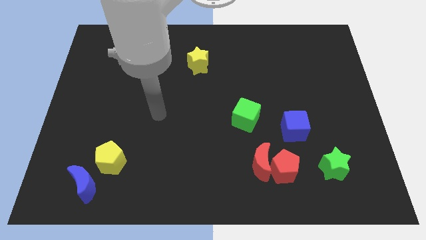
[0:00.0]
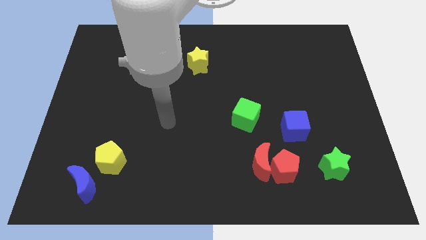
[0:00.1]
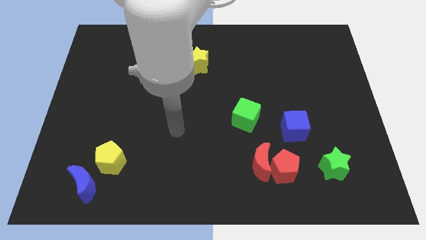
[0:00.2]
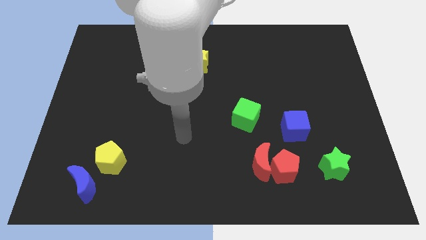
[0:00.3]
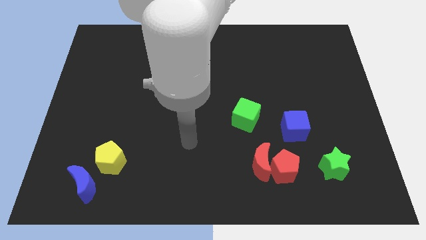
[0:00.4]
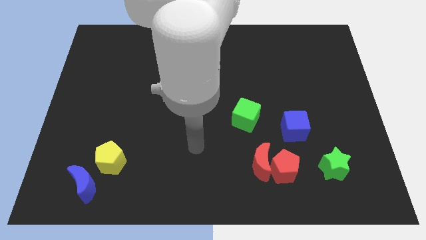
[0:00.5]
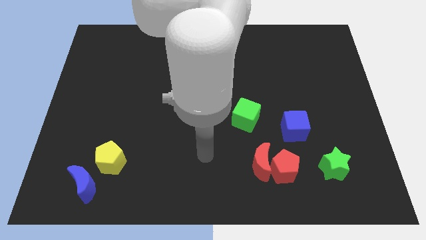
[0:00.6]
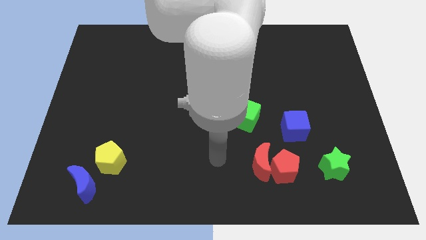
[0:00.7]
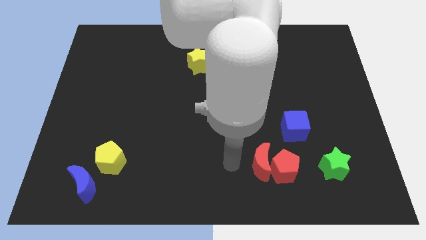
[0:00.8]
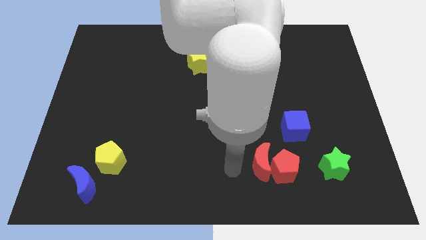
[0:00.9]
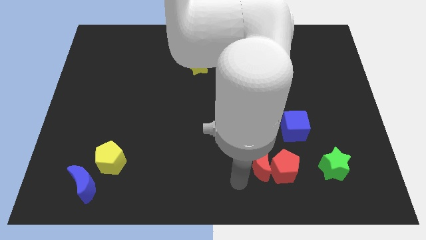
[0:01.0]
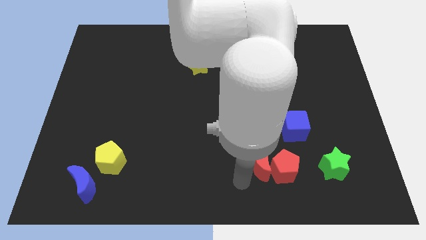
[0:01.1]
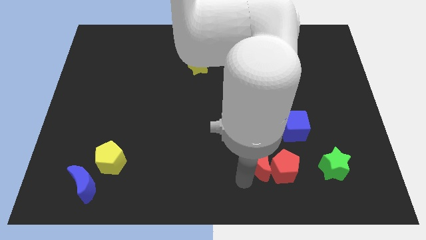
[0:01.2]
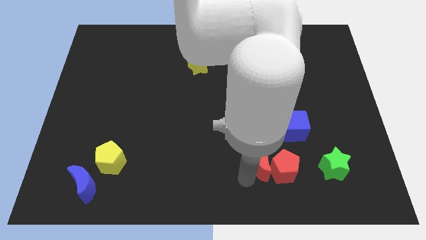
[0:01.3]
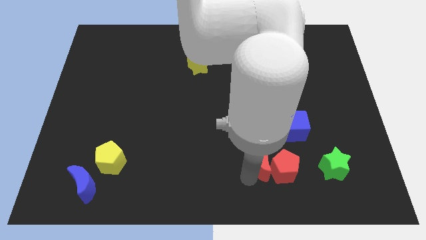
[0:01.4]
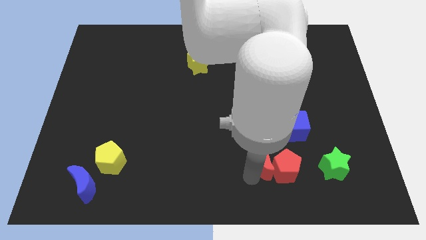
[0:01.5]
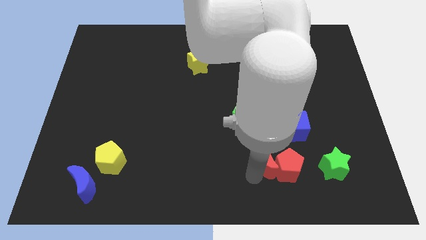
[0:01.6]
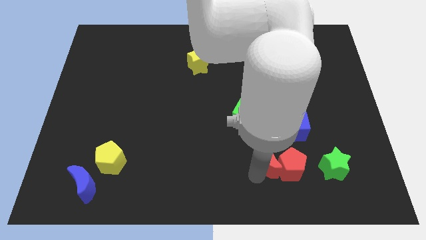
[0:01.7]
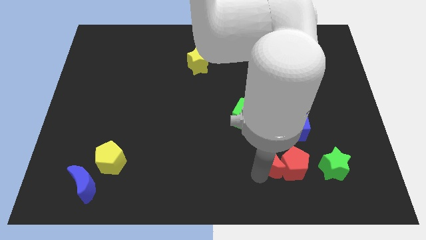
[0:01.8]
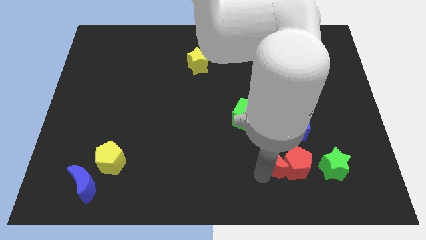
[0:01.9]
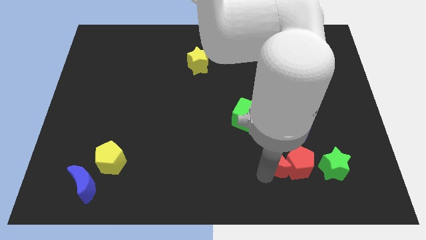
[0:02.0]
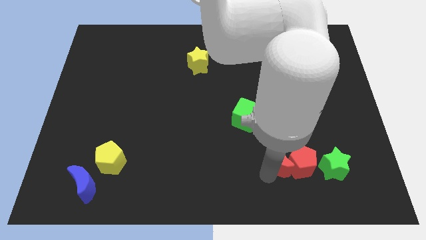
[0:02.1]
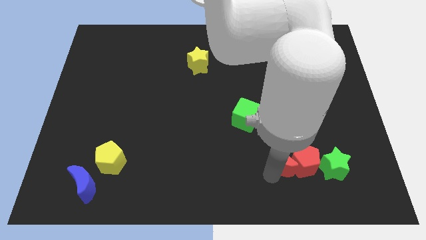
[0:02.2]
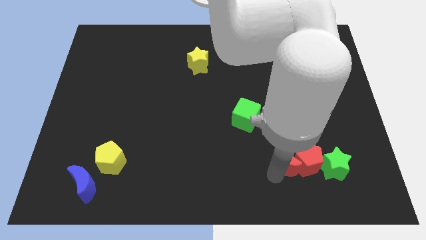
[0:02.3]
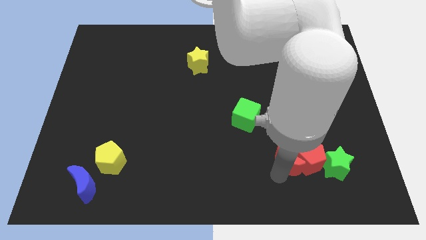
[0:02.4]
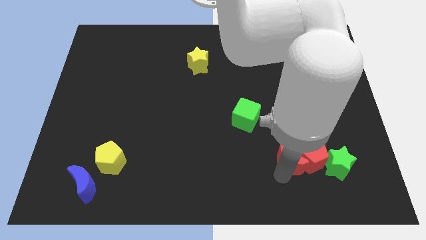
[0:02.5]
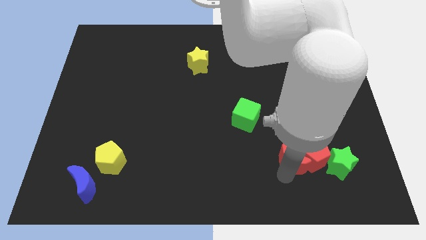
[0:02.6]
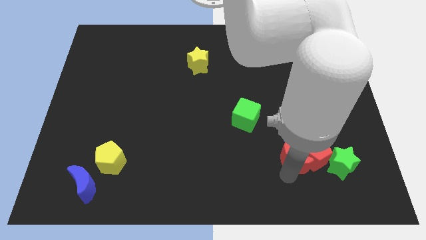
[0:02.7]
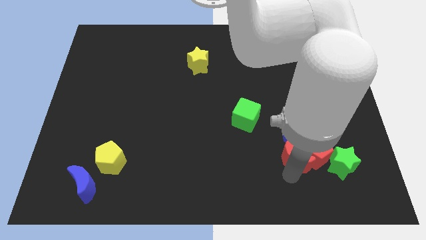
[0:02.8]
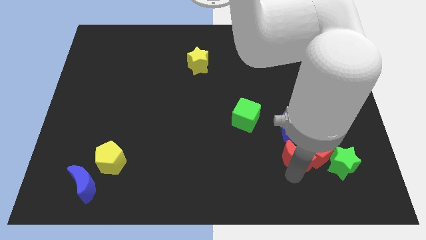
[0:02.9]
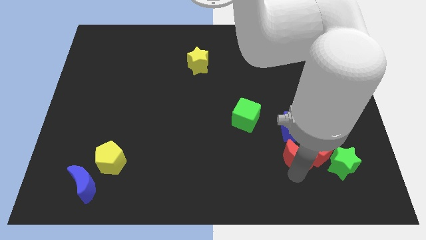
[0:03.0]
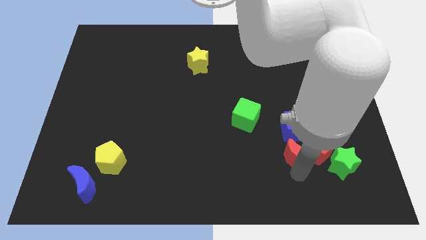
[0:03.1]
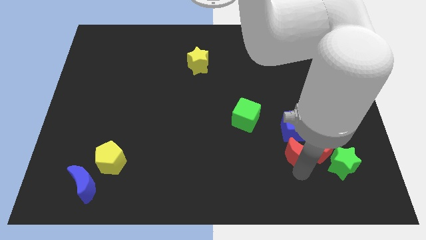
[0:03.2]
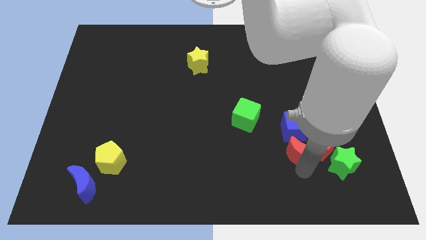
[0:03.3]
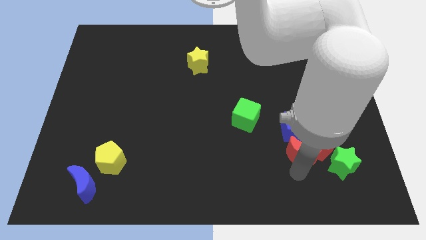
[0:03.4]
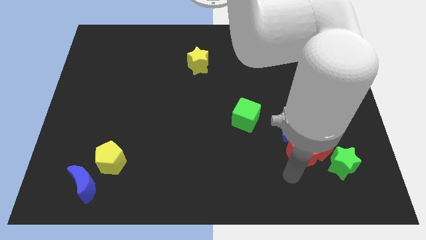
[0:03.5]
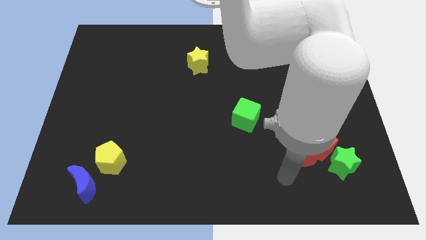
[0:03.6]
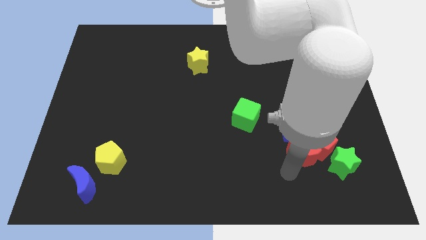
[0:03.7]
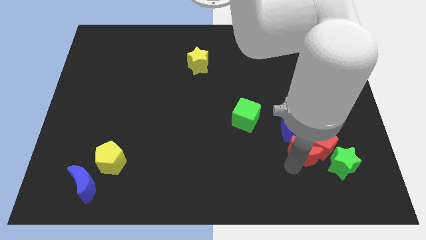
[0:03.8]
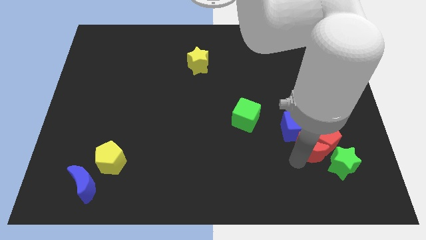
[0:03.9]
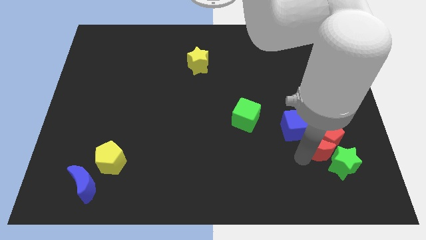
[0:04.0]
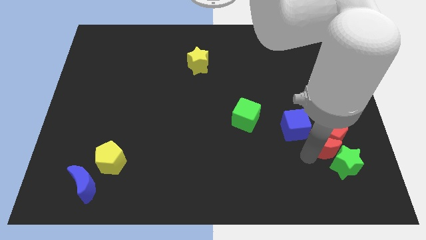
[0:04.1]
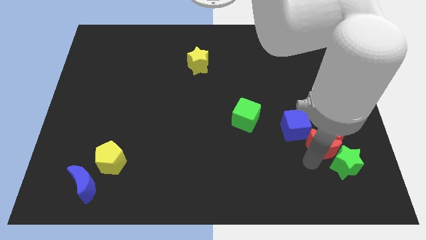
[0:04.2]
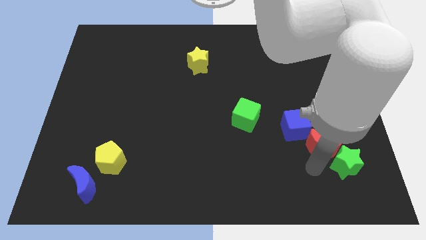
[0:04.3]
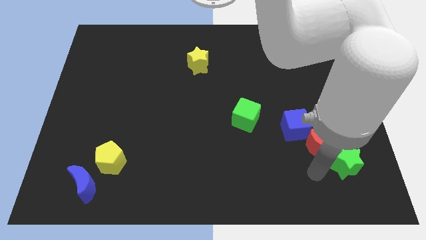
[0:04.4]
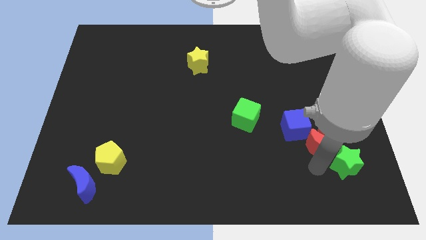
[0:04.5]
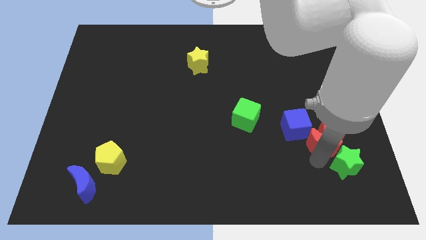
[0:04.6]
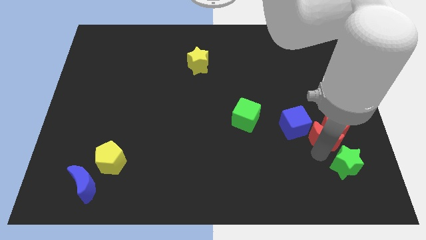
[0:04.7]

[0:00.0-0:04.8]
put the red moon just right of the blue cube

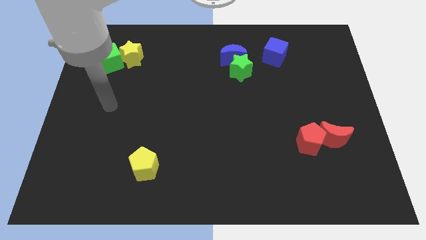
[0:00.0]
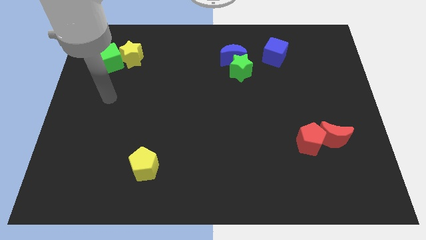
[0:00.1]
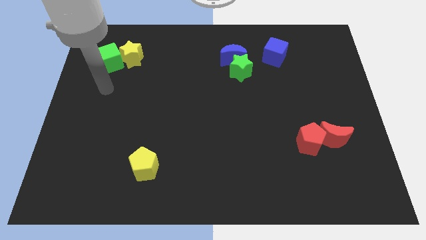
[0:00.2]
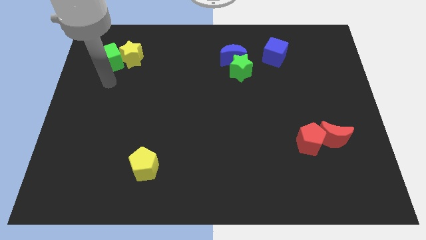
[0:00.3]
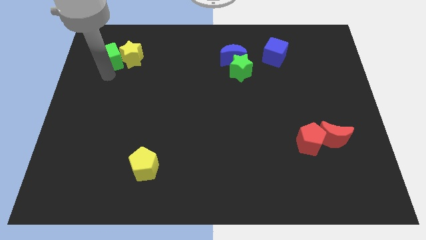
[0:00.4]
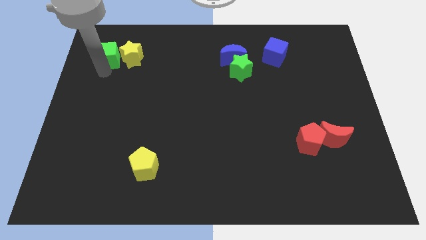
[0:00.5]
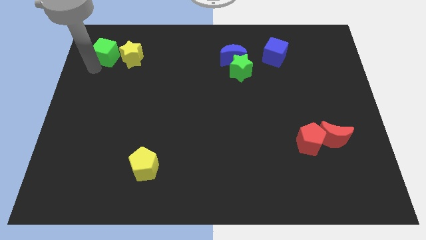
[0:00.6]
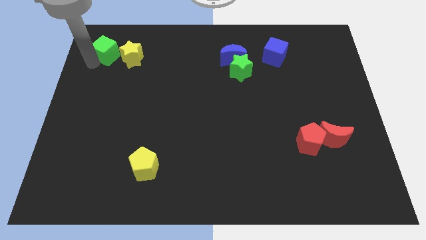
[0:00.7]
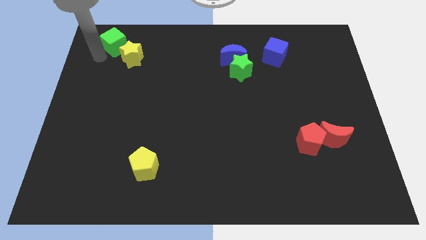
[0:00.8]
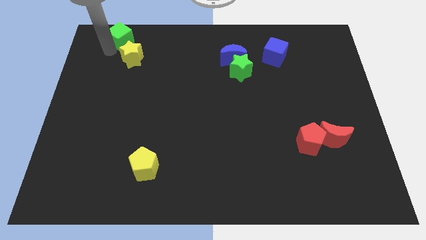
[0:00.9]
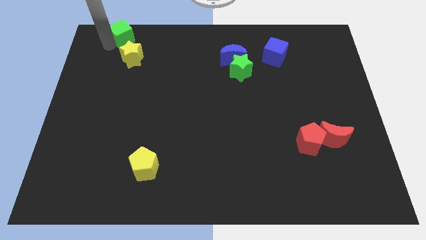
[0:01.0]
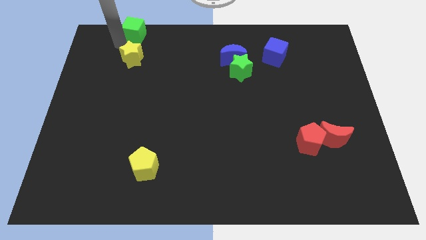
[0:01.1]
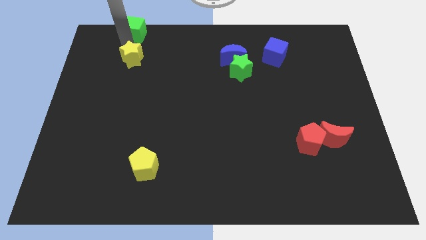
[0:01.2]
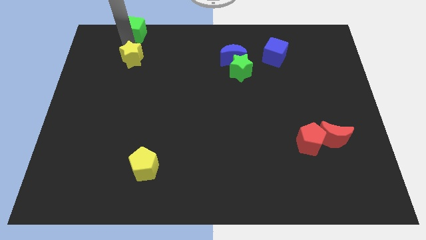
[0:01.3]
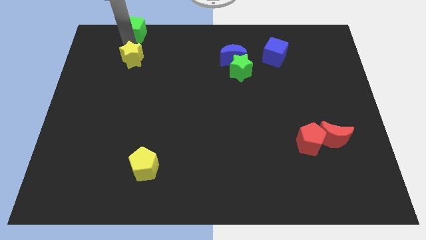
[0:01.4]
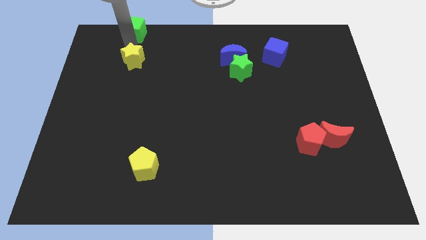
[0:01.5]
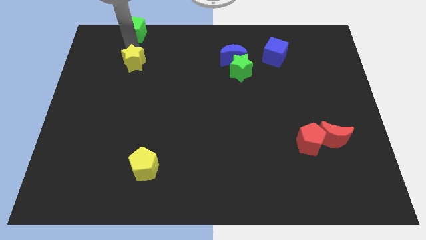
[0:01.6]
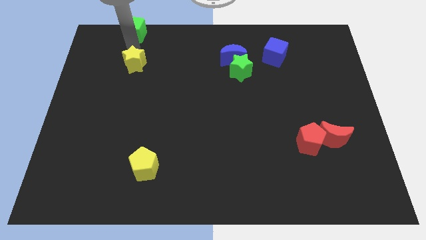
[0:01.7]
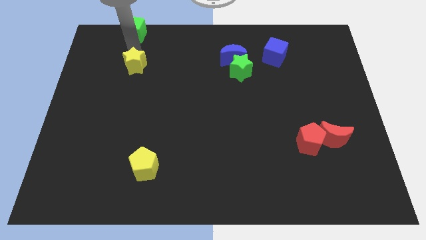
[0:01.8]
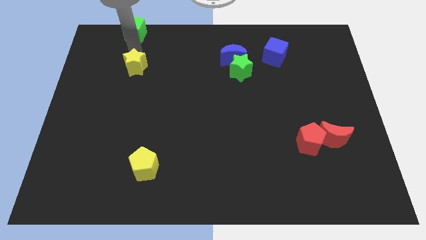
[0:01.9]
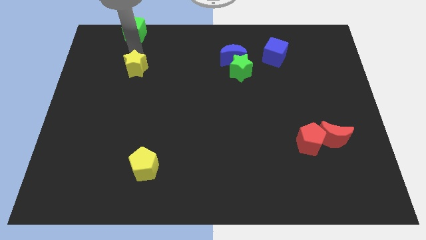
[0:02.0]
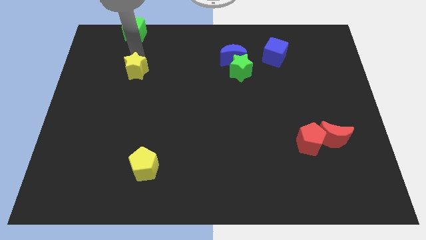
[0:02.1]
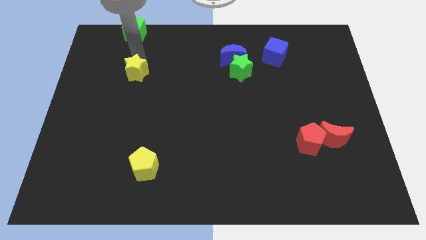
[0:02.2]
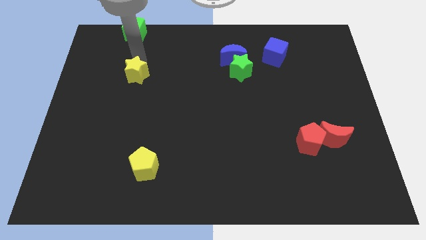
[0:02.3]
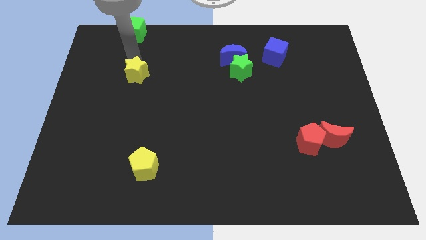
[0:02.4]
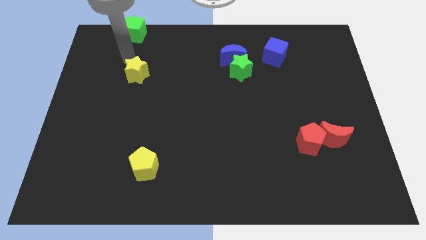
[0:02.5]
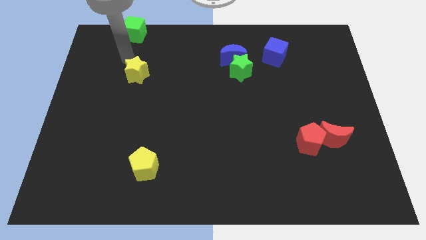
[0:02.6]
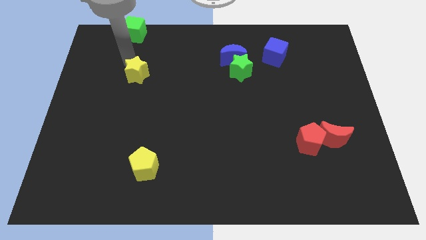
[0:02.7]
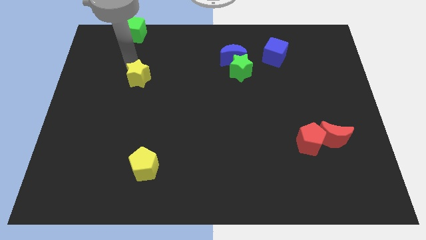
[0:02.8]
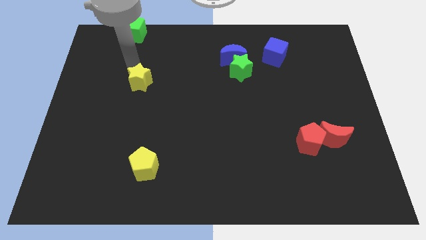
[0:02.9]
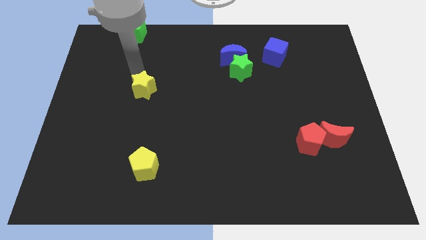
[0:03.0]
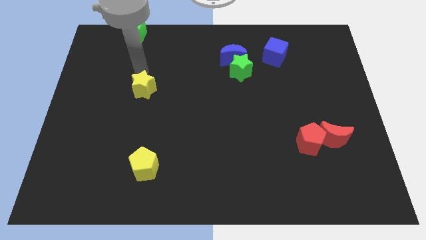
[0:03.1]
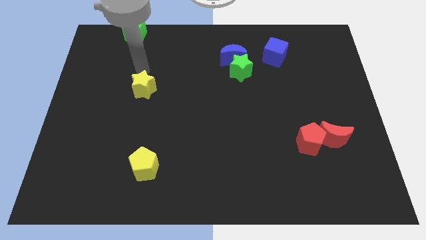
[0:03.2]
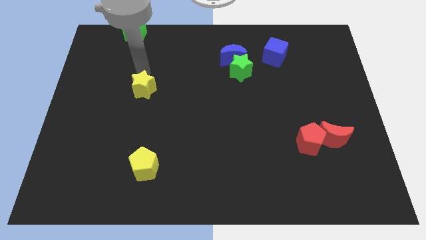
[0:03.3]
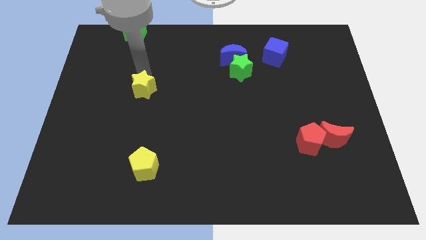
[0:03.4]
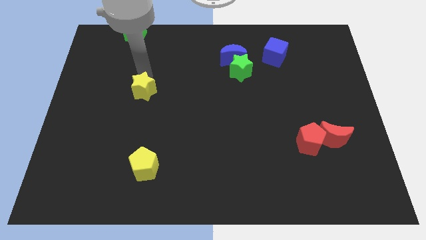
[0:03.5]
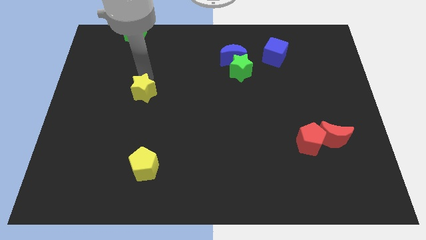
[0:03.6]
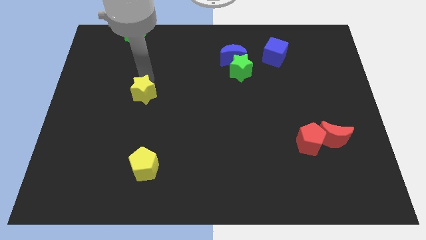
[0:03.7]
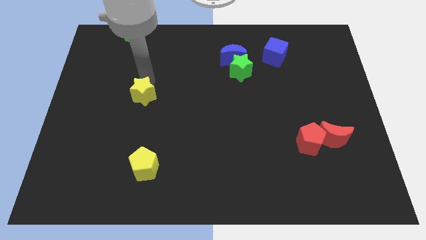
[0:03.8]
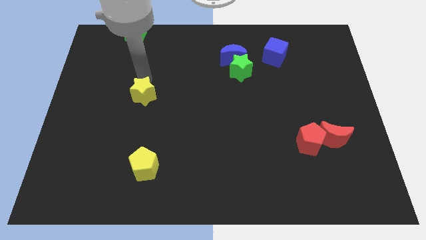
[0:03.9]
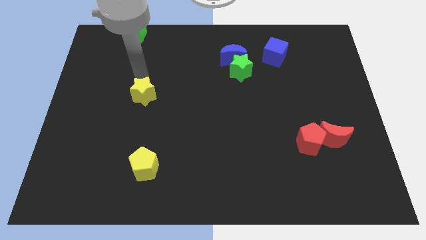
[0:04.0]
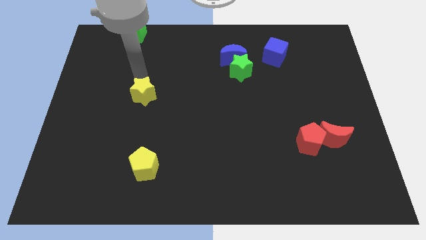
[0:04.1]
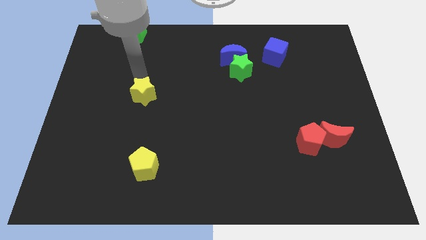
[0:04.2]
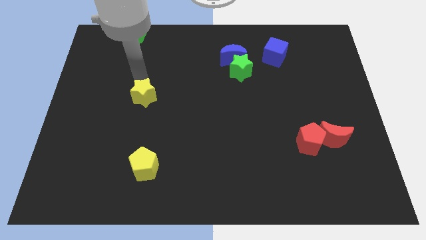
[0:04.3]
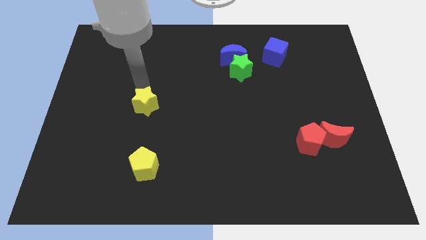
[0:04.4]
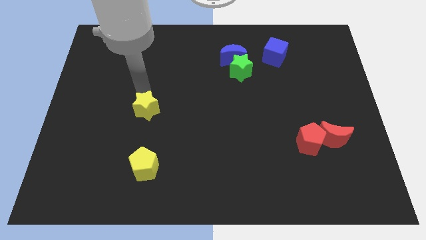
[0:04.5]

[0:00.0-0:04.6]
push the yellow star above the yellow pentagon
